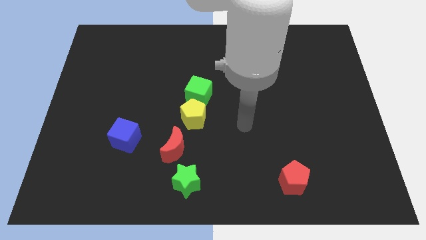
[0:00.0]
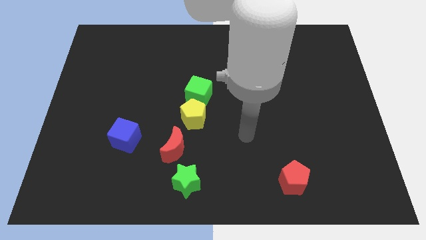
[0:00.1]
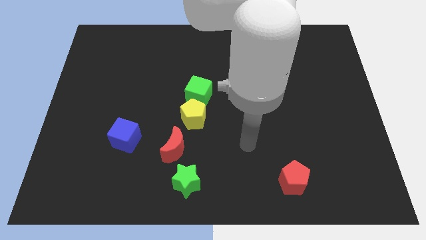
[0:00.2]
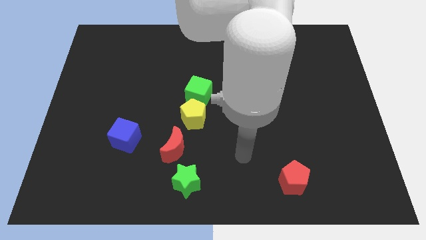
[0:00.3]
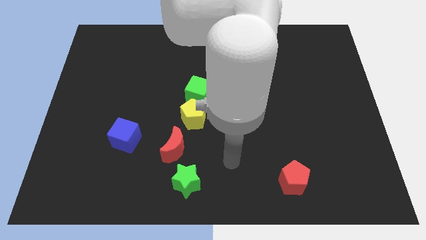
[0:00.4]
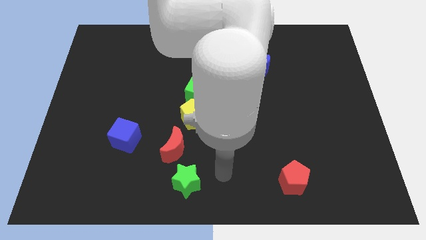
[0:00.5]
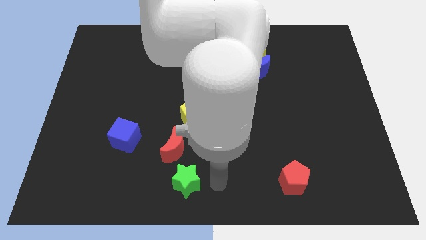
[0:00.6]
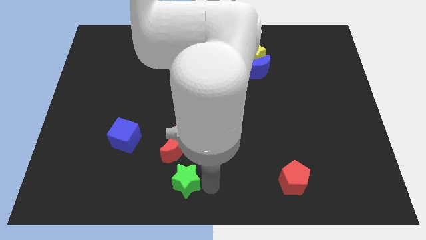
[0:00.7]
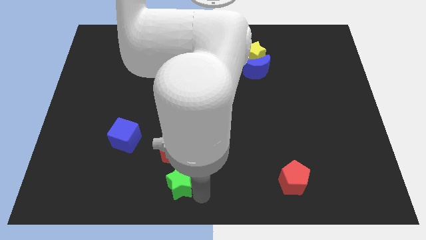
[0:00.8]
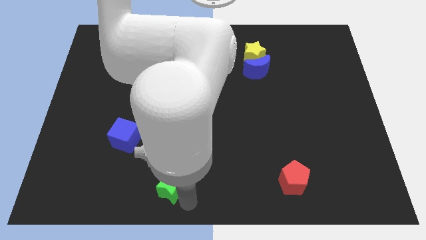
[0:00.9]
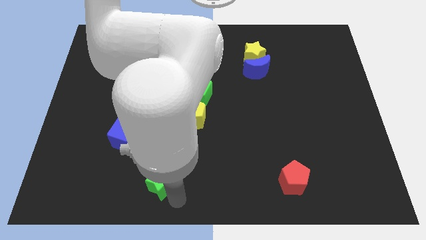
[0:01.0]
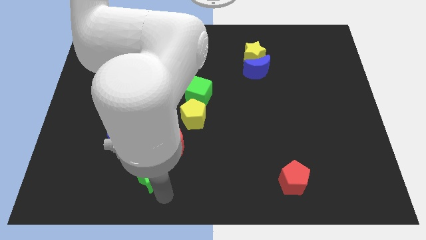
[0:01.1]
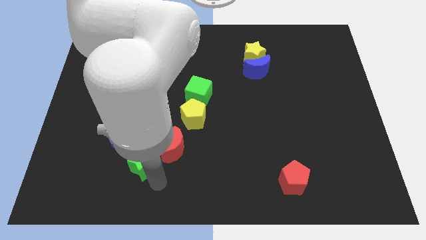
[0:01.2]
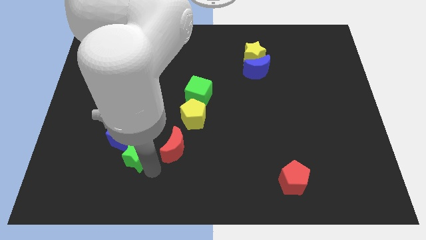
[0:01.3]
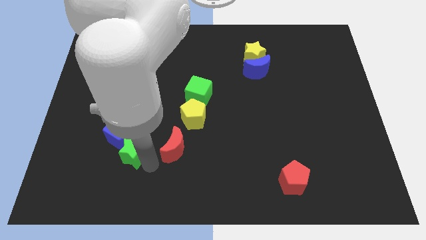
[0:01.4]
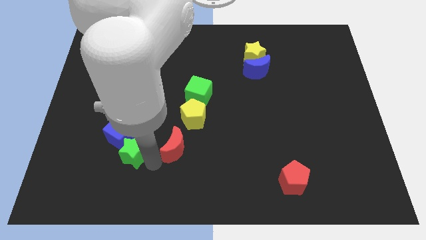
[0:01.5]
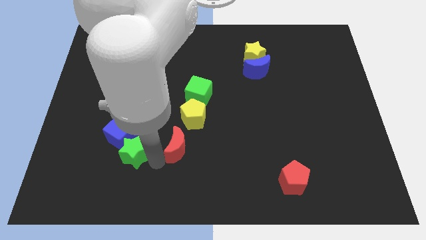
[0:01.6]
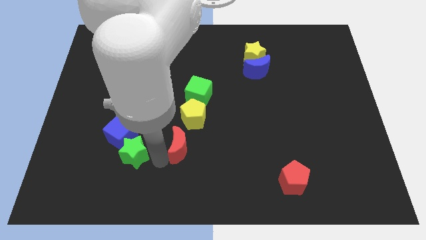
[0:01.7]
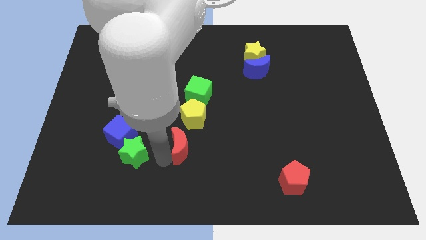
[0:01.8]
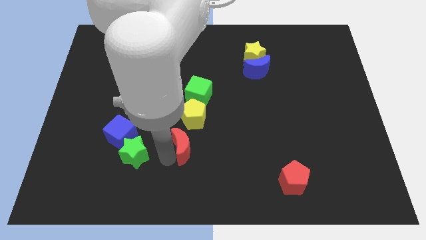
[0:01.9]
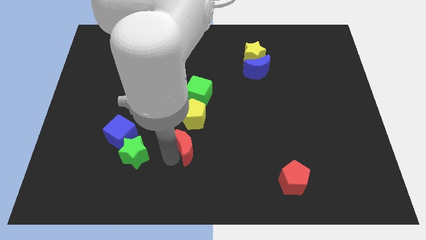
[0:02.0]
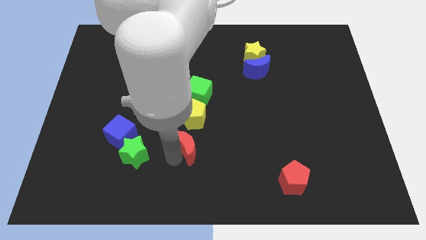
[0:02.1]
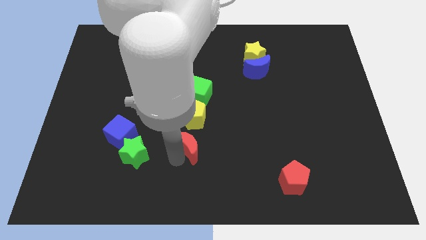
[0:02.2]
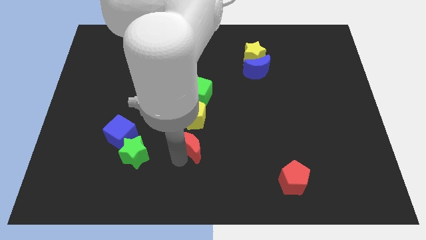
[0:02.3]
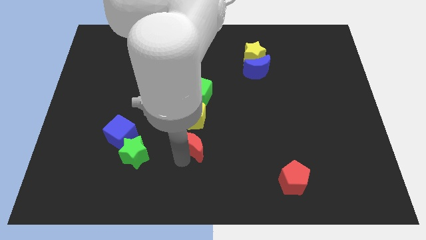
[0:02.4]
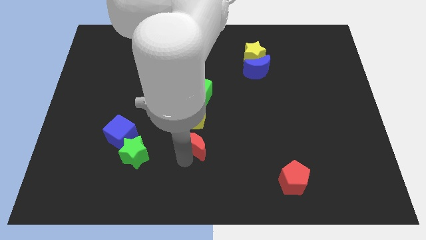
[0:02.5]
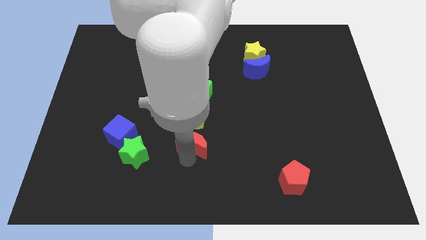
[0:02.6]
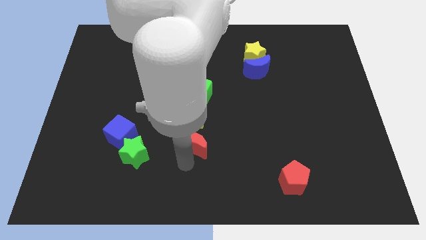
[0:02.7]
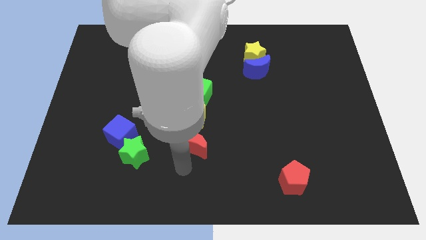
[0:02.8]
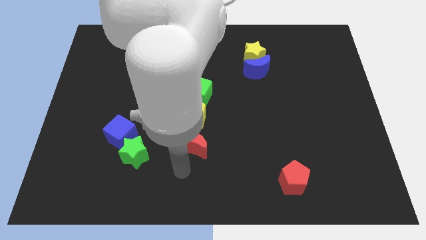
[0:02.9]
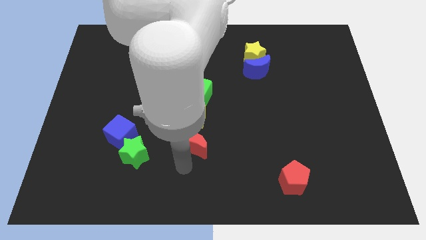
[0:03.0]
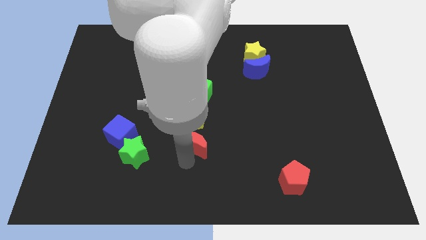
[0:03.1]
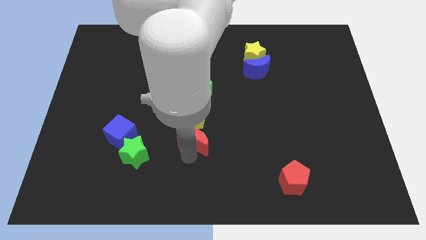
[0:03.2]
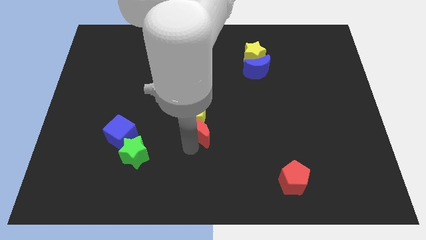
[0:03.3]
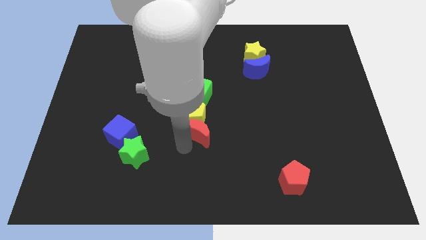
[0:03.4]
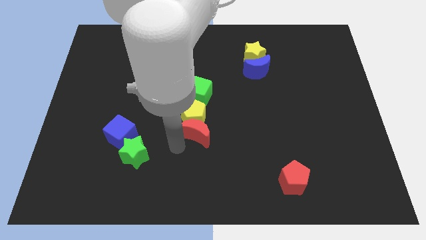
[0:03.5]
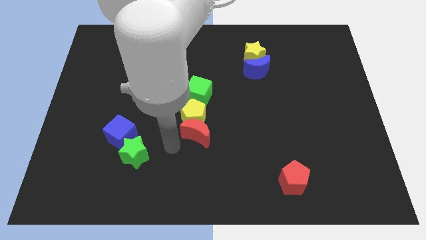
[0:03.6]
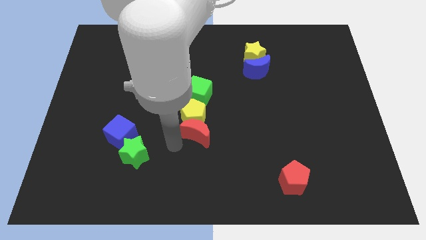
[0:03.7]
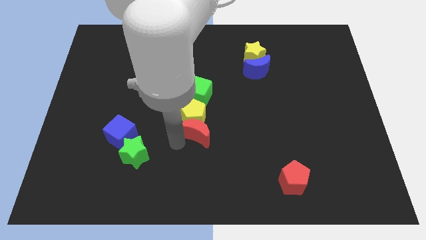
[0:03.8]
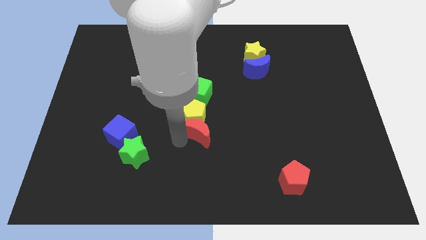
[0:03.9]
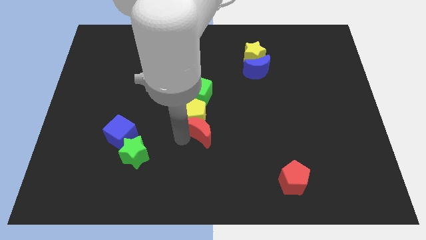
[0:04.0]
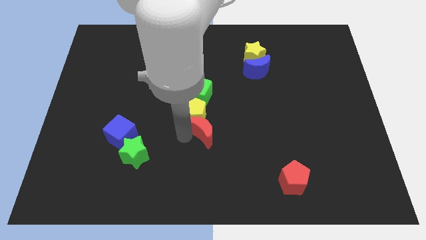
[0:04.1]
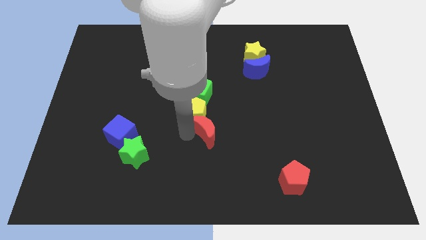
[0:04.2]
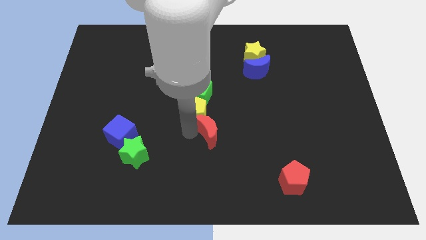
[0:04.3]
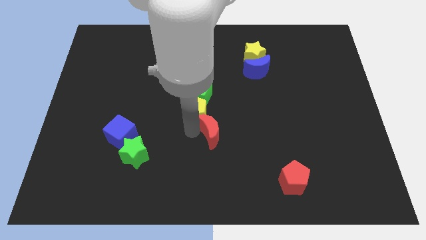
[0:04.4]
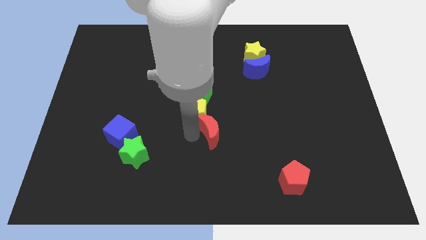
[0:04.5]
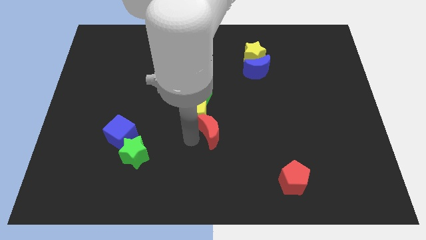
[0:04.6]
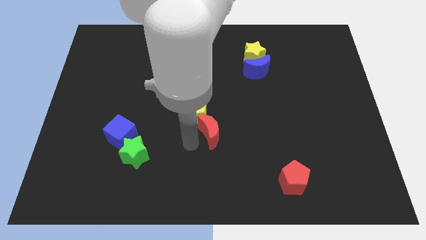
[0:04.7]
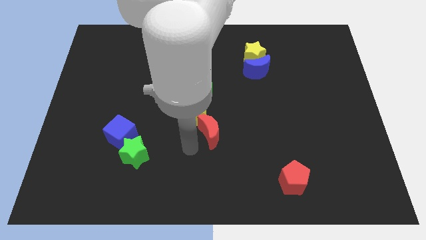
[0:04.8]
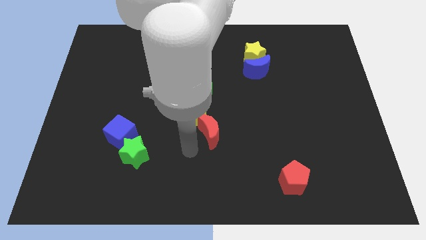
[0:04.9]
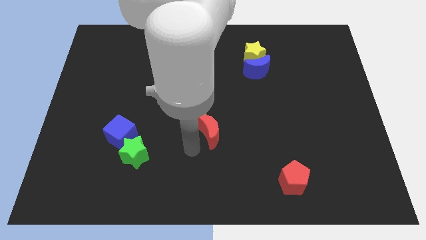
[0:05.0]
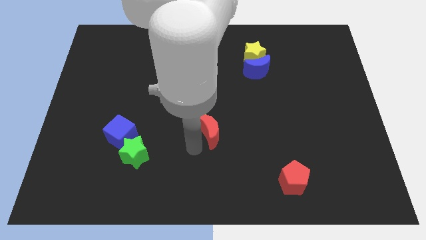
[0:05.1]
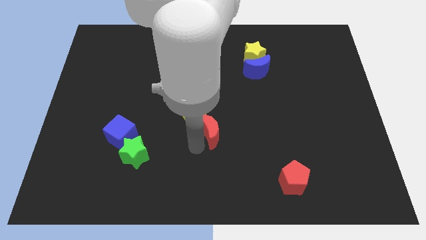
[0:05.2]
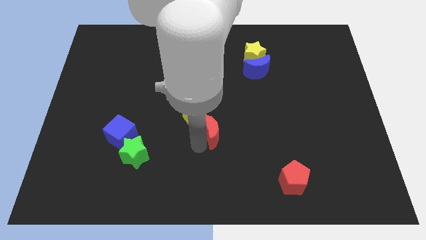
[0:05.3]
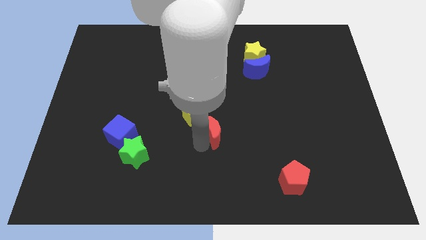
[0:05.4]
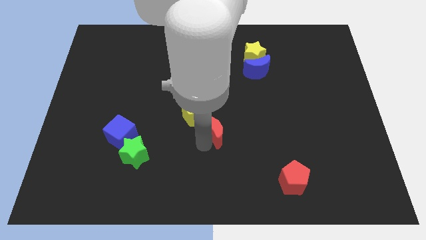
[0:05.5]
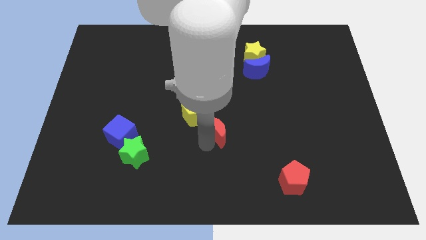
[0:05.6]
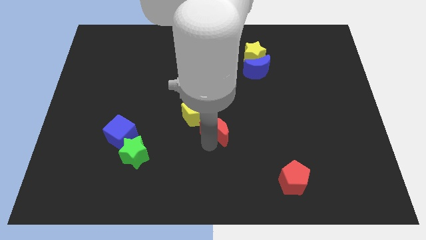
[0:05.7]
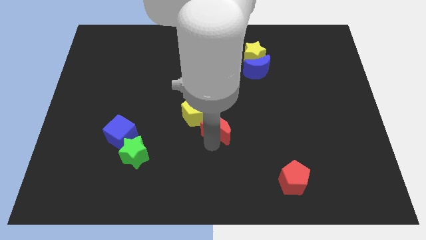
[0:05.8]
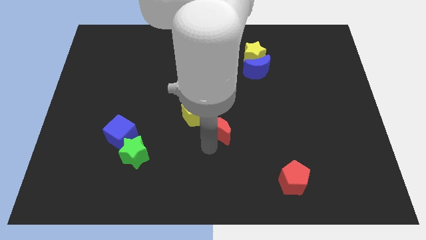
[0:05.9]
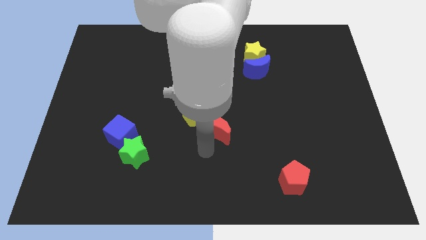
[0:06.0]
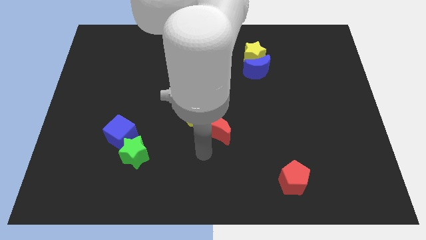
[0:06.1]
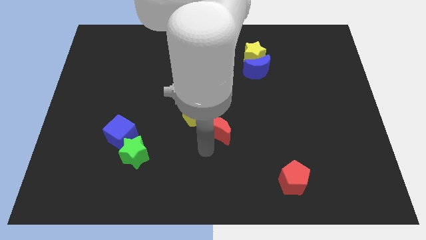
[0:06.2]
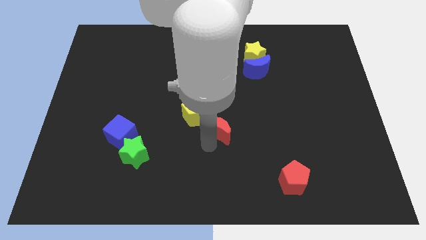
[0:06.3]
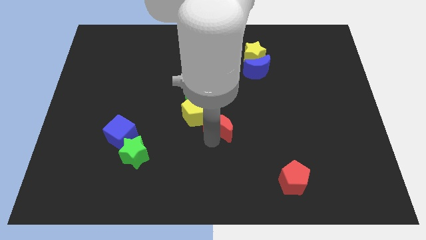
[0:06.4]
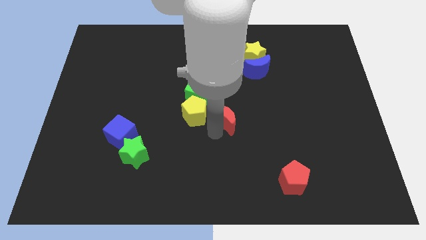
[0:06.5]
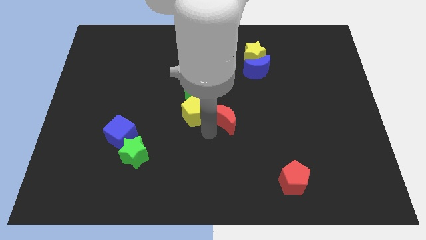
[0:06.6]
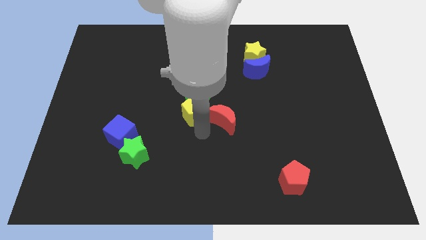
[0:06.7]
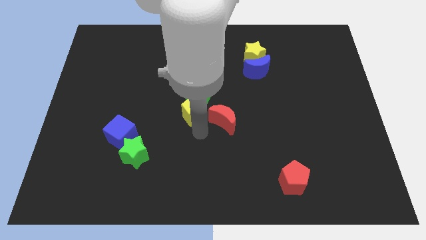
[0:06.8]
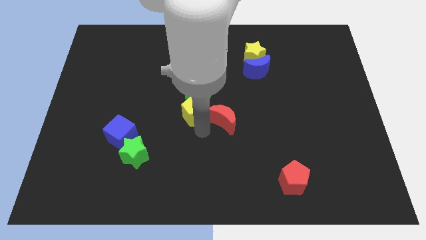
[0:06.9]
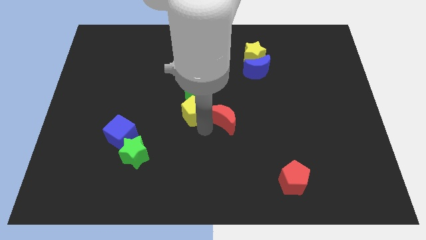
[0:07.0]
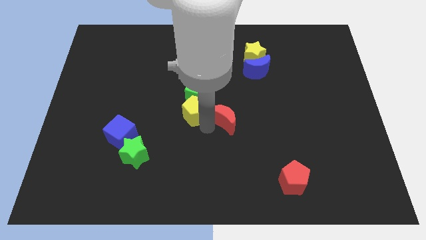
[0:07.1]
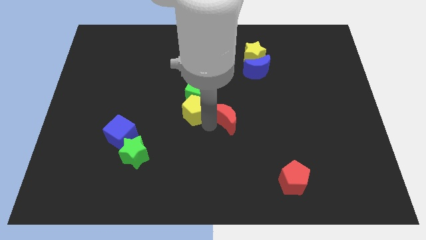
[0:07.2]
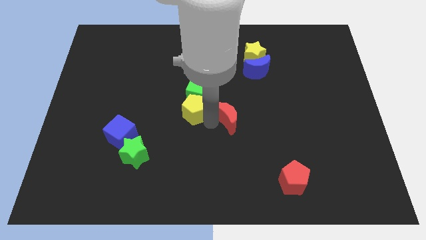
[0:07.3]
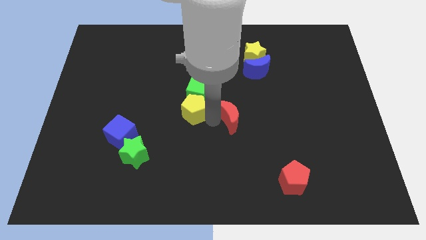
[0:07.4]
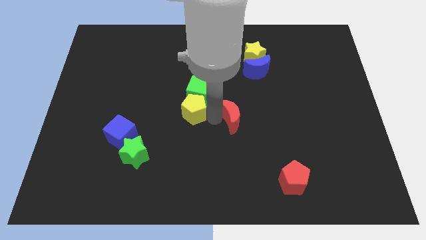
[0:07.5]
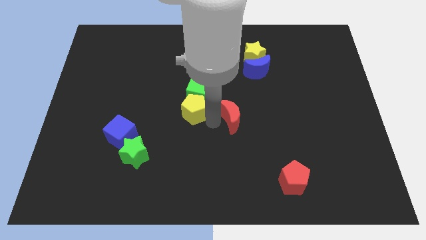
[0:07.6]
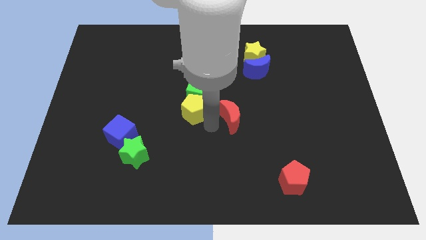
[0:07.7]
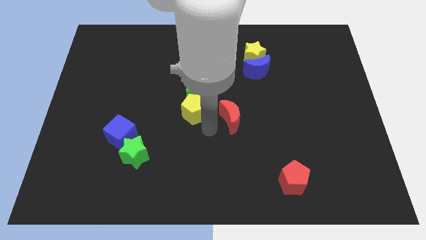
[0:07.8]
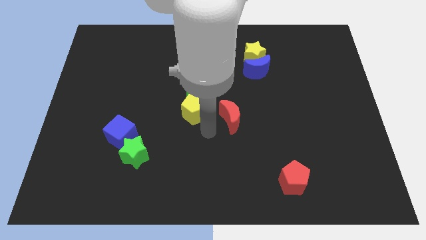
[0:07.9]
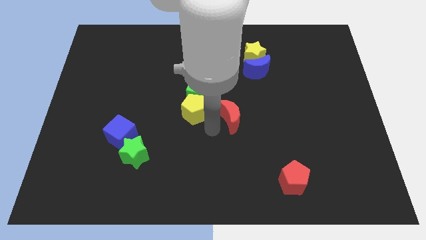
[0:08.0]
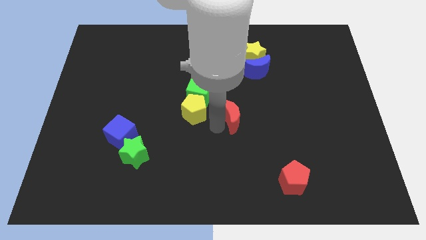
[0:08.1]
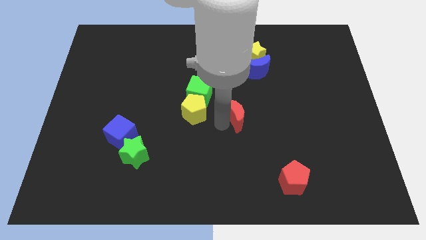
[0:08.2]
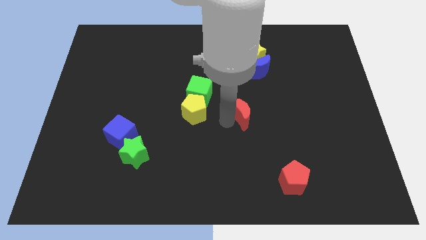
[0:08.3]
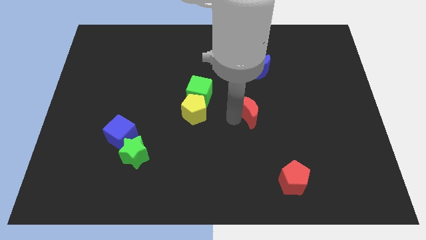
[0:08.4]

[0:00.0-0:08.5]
put the red moon below the blue moon
